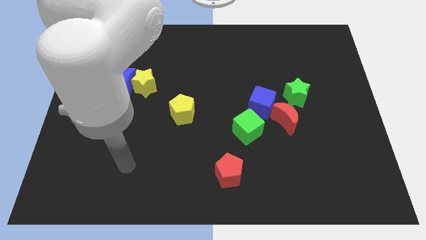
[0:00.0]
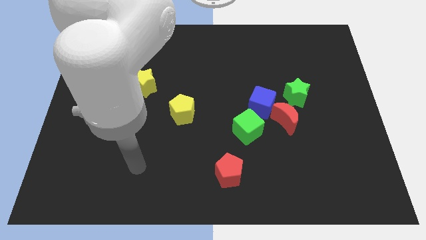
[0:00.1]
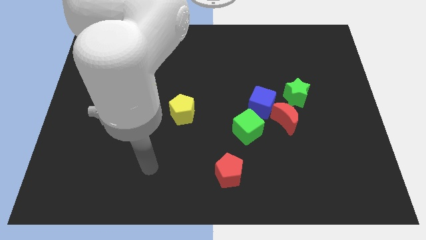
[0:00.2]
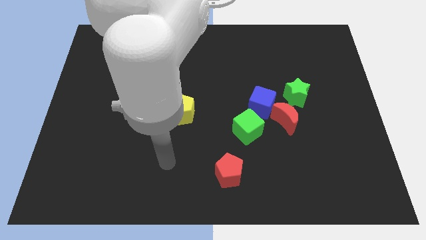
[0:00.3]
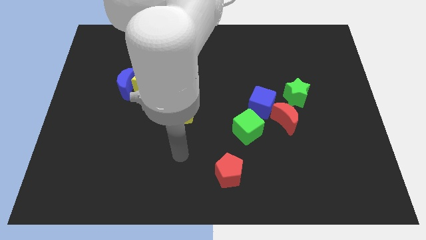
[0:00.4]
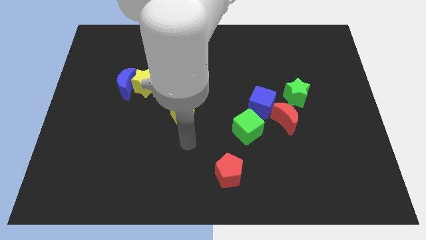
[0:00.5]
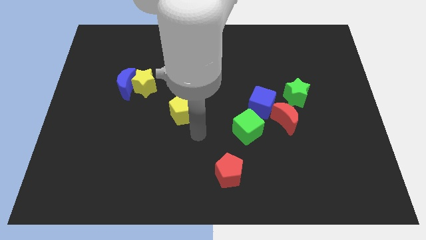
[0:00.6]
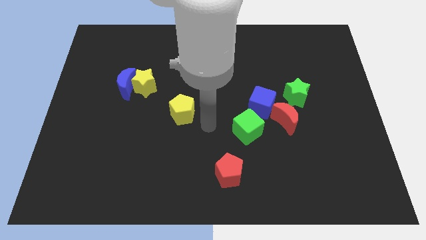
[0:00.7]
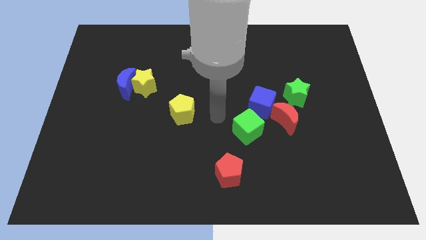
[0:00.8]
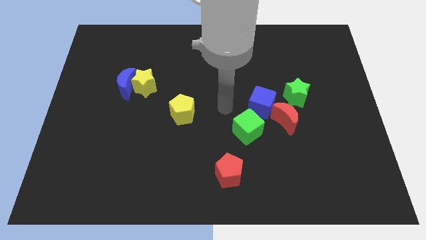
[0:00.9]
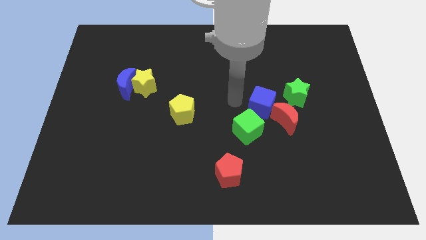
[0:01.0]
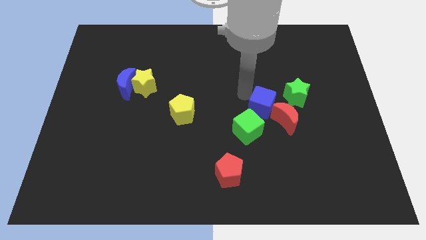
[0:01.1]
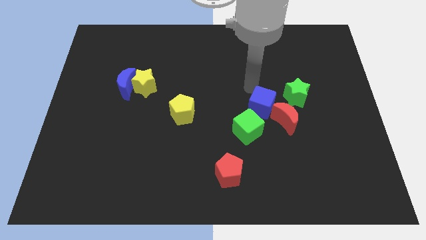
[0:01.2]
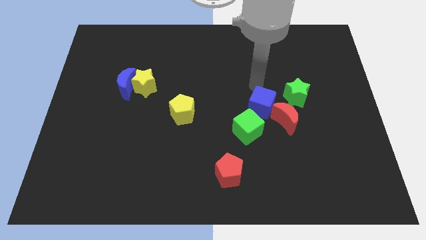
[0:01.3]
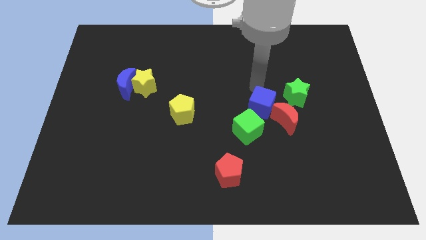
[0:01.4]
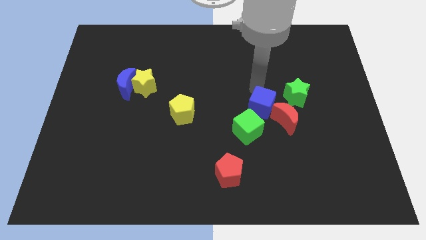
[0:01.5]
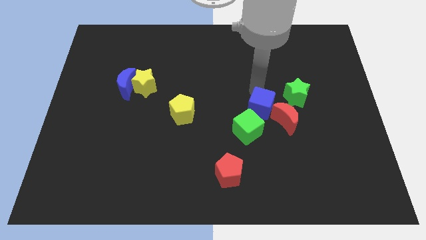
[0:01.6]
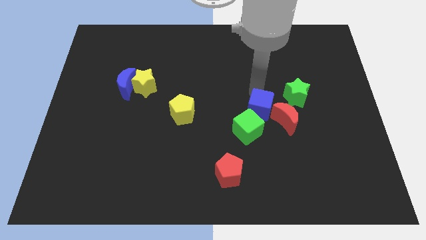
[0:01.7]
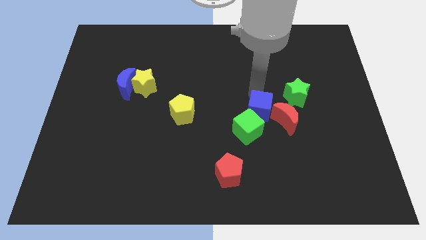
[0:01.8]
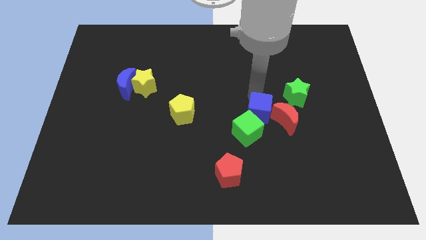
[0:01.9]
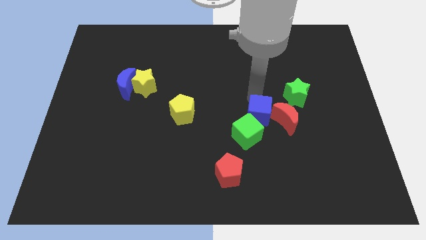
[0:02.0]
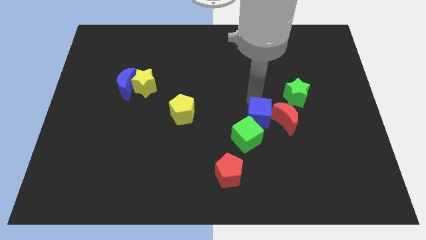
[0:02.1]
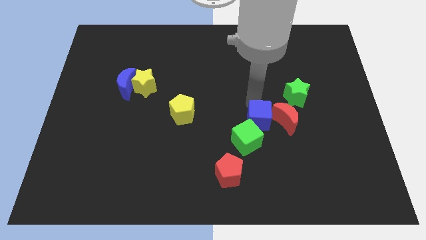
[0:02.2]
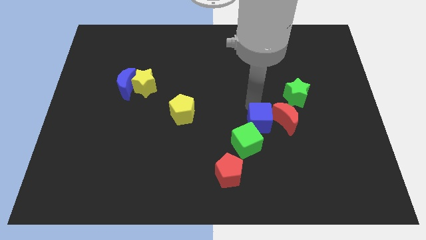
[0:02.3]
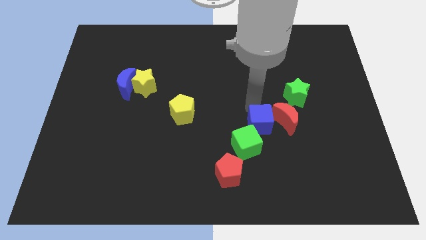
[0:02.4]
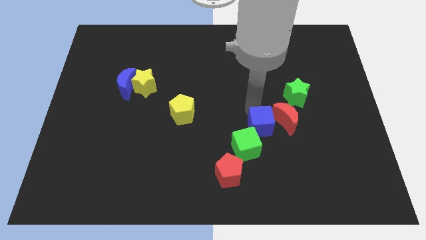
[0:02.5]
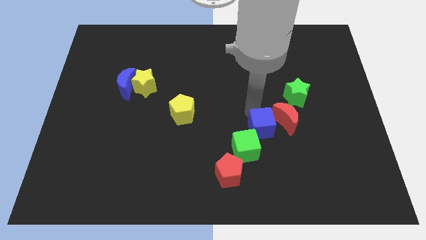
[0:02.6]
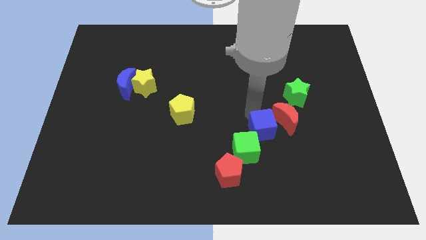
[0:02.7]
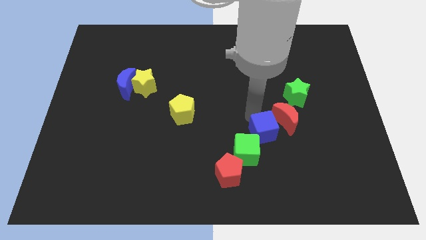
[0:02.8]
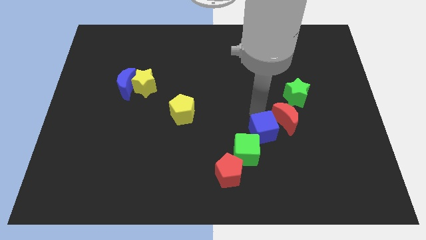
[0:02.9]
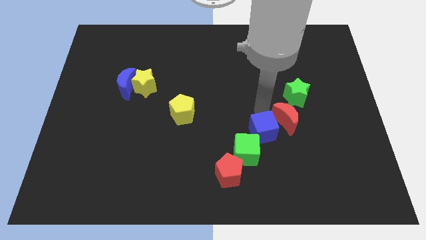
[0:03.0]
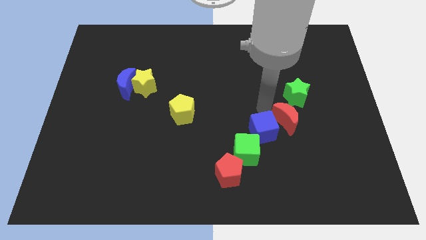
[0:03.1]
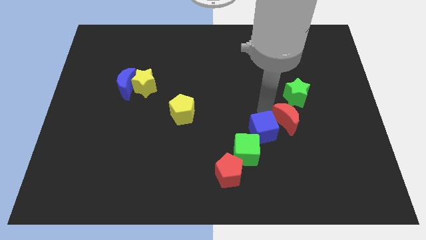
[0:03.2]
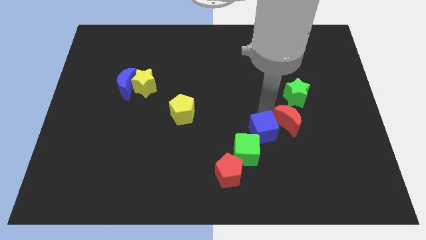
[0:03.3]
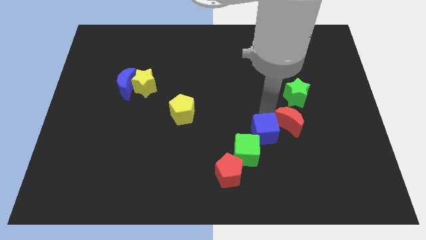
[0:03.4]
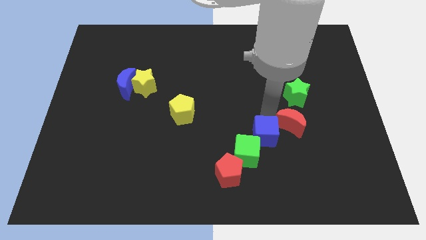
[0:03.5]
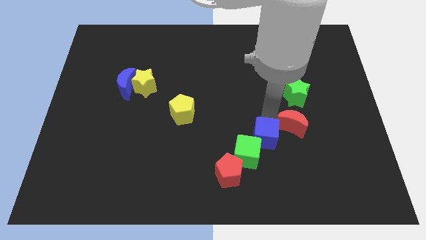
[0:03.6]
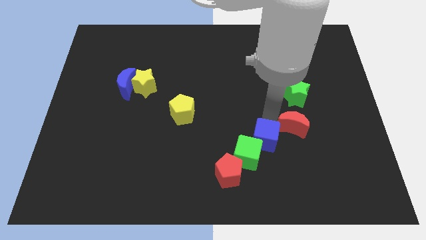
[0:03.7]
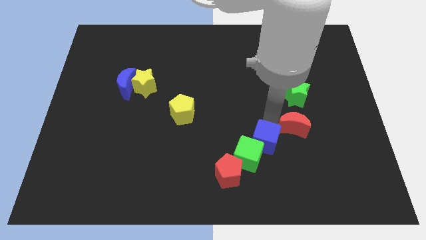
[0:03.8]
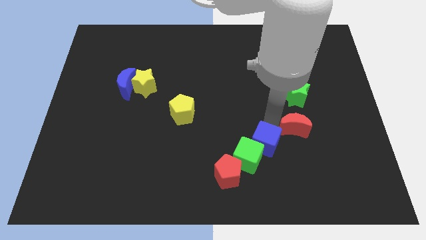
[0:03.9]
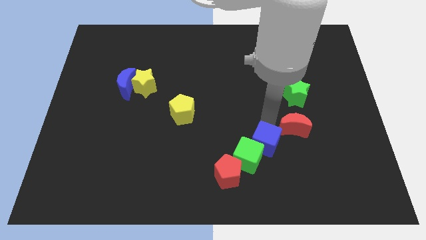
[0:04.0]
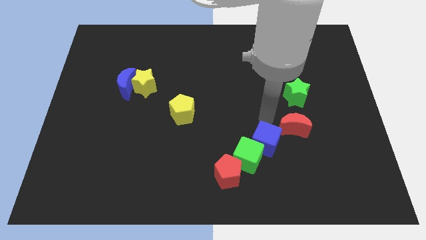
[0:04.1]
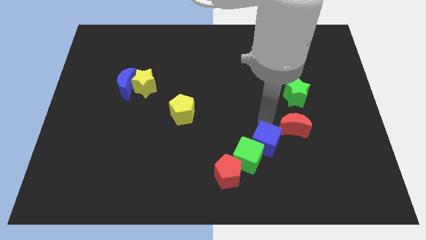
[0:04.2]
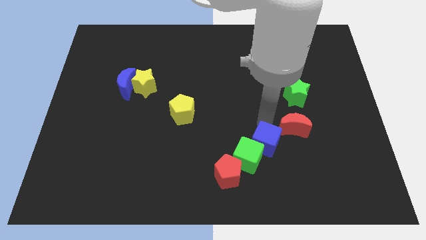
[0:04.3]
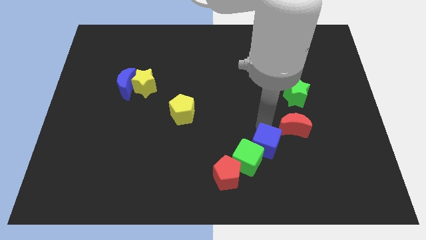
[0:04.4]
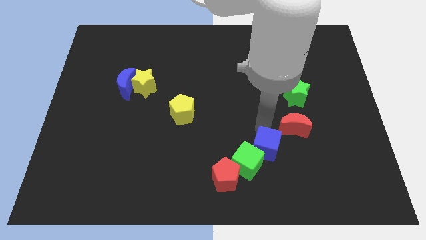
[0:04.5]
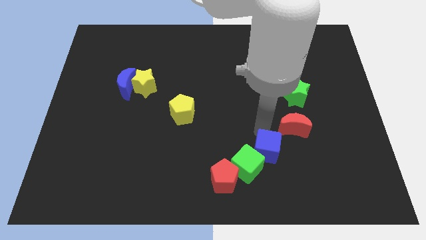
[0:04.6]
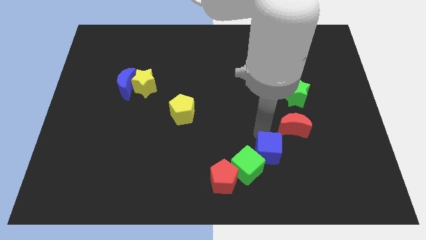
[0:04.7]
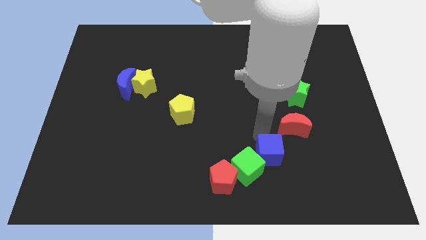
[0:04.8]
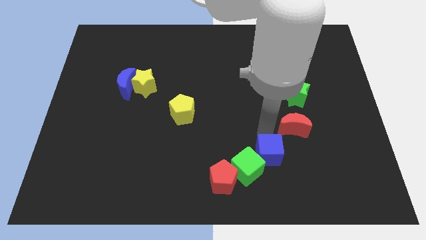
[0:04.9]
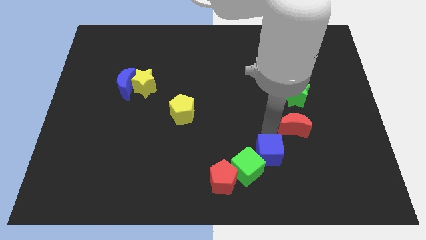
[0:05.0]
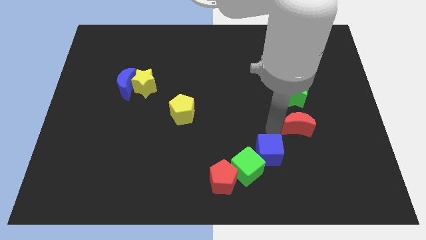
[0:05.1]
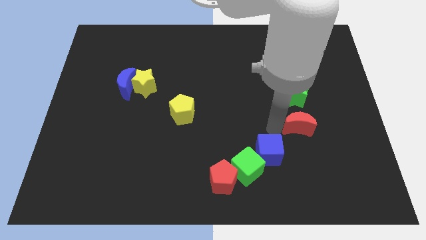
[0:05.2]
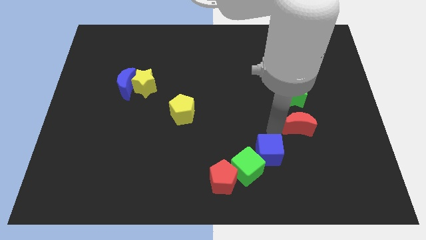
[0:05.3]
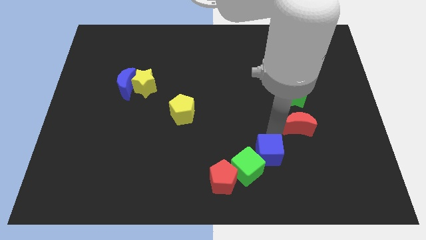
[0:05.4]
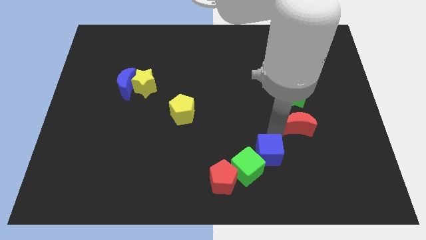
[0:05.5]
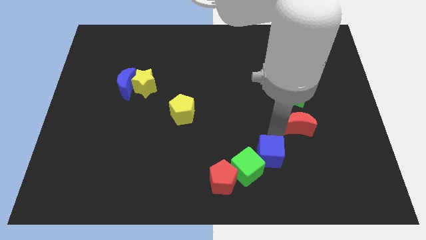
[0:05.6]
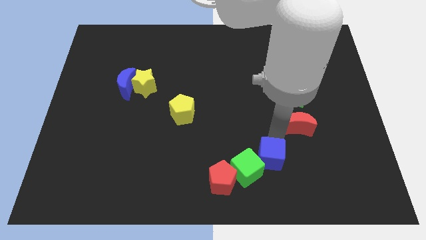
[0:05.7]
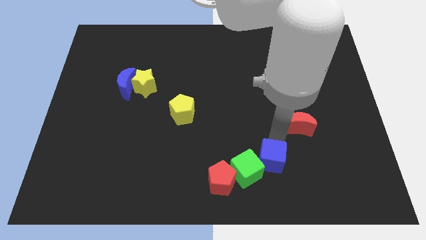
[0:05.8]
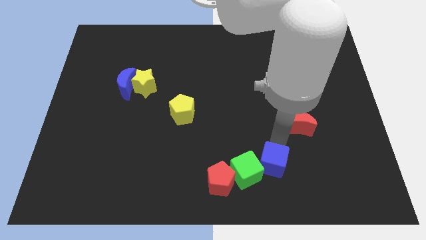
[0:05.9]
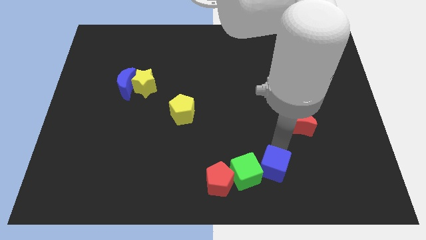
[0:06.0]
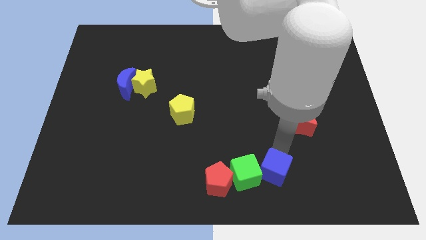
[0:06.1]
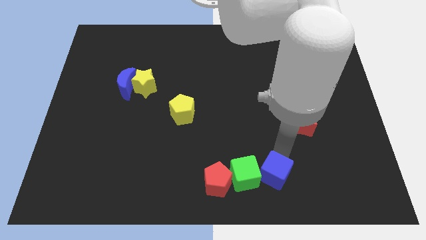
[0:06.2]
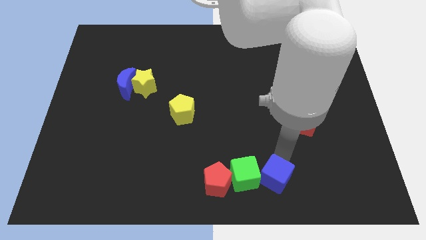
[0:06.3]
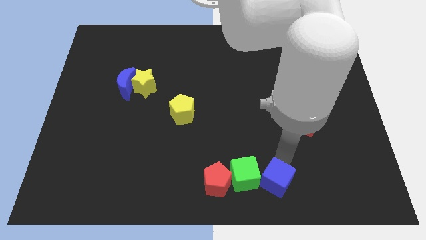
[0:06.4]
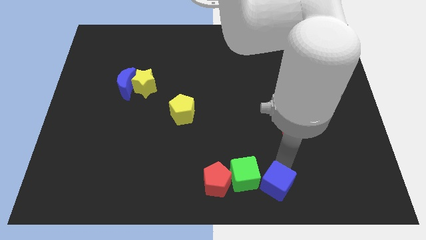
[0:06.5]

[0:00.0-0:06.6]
slide the blue cube to the bottom side

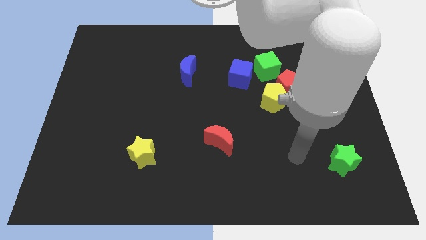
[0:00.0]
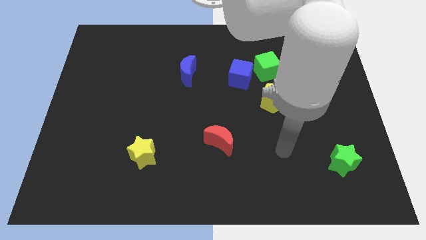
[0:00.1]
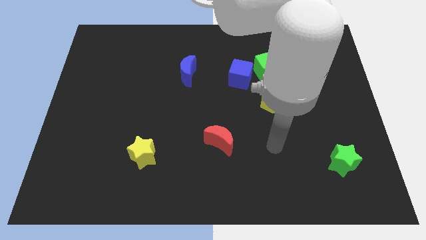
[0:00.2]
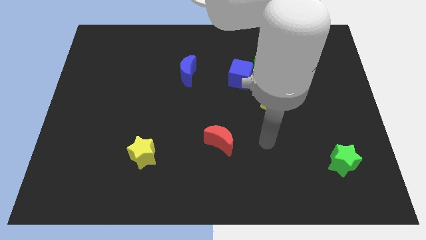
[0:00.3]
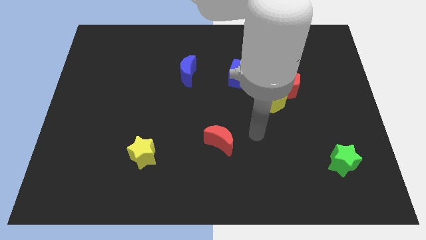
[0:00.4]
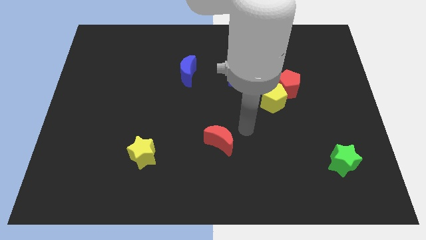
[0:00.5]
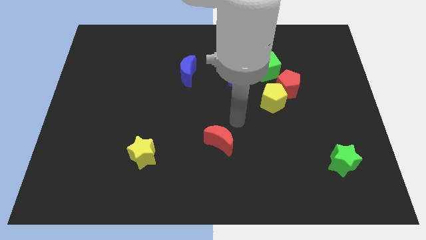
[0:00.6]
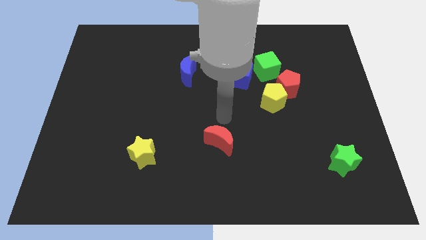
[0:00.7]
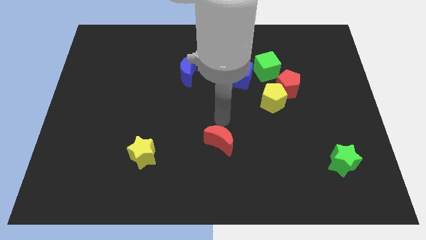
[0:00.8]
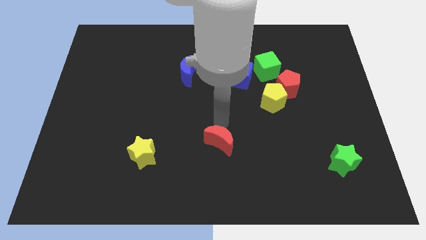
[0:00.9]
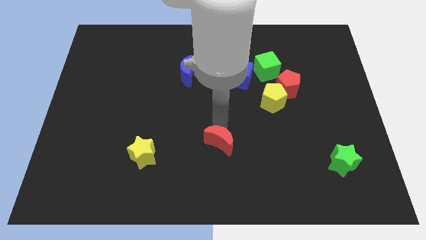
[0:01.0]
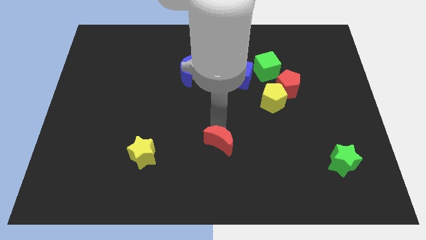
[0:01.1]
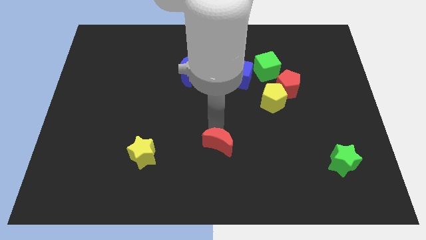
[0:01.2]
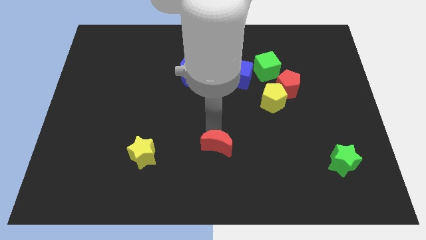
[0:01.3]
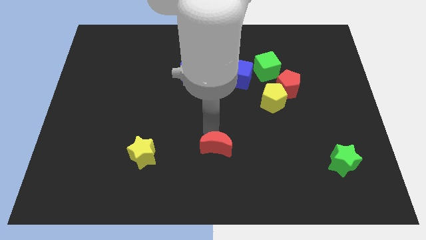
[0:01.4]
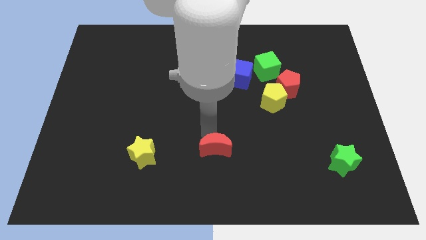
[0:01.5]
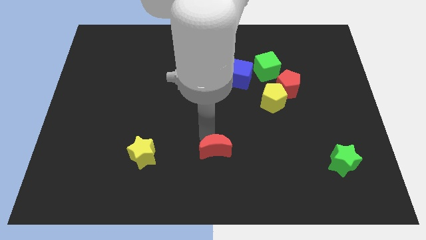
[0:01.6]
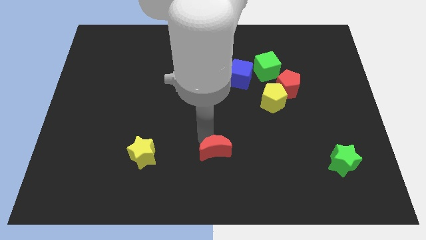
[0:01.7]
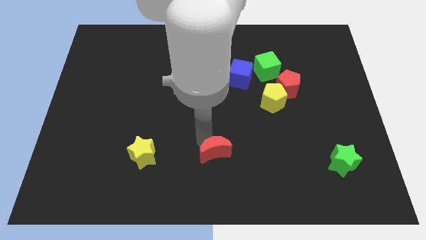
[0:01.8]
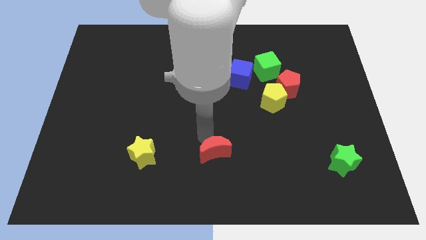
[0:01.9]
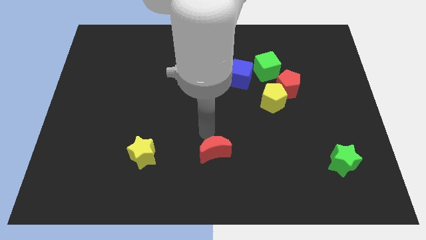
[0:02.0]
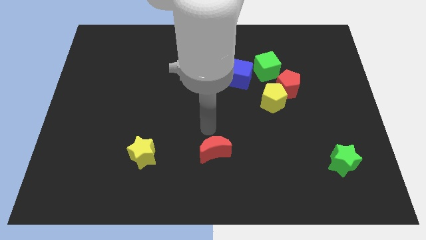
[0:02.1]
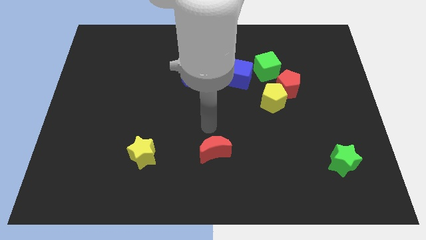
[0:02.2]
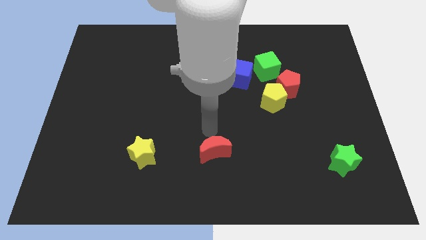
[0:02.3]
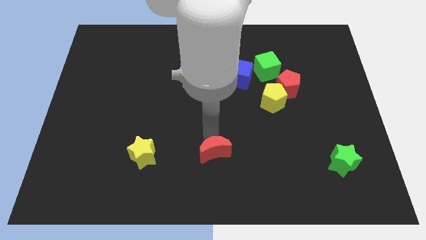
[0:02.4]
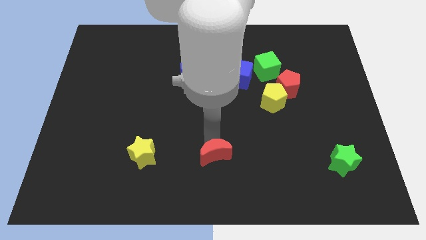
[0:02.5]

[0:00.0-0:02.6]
push the red moon to the bottom side
